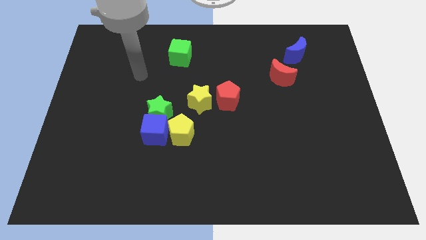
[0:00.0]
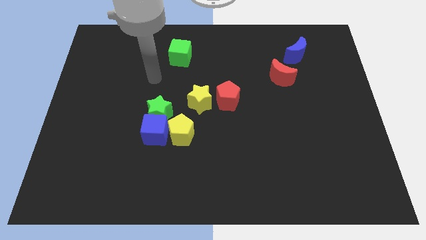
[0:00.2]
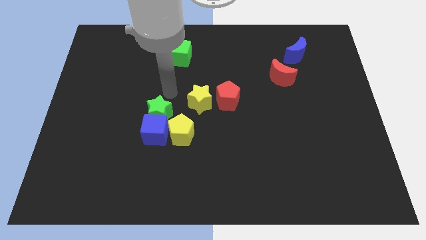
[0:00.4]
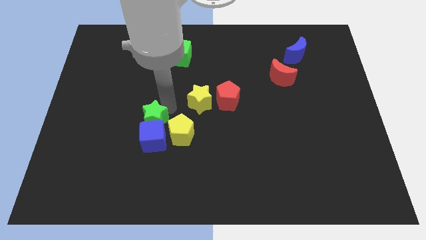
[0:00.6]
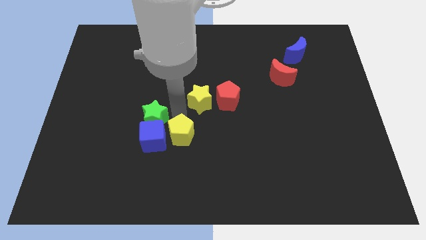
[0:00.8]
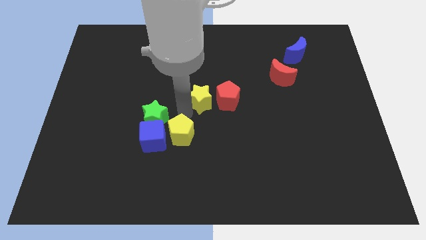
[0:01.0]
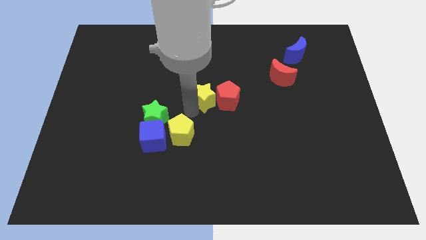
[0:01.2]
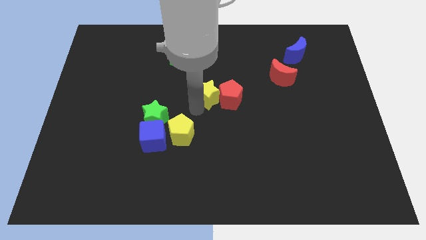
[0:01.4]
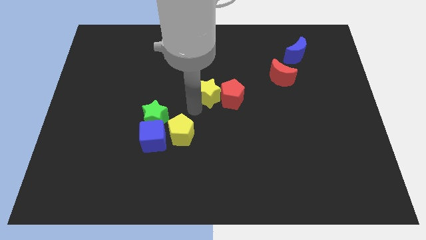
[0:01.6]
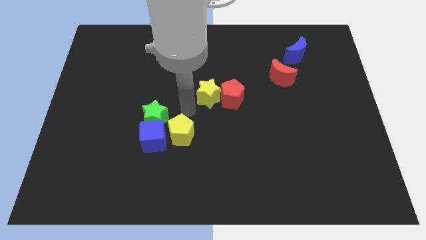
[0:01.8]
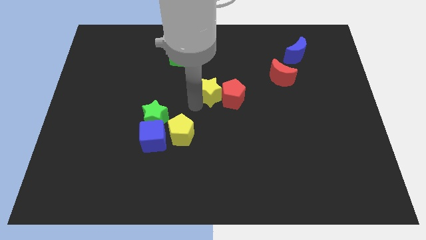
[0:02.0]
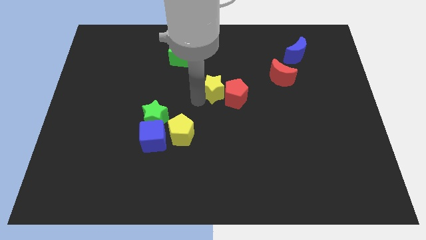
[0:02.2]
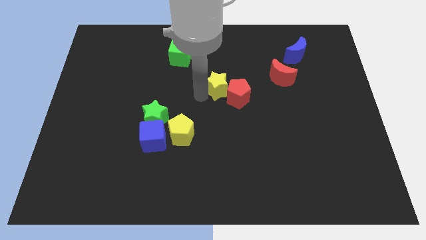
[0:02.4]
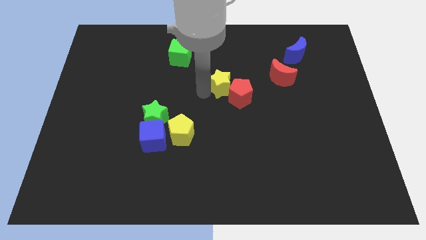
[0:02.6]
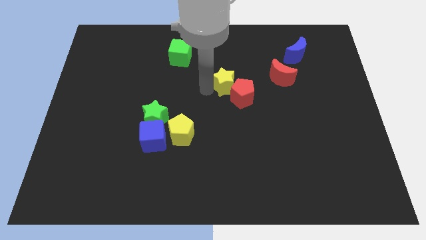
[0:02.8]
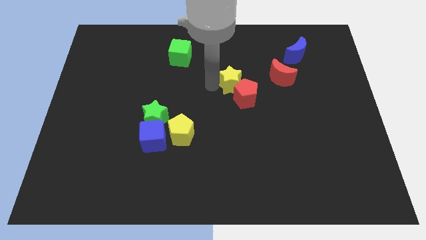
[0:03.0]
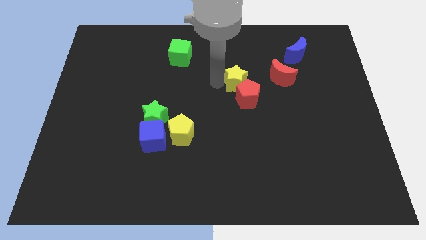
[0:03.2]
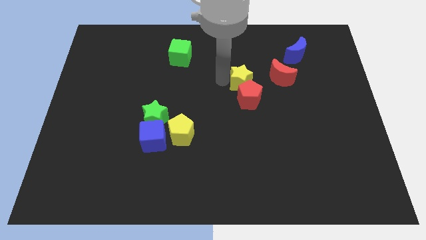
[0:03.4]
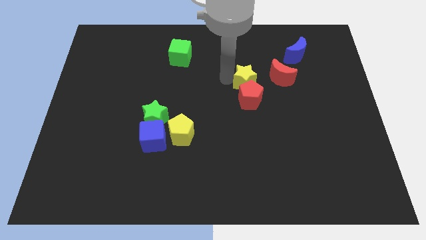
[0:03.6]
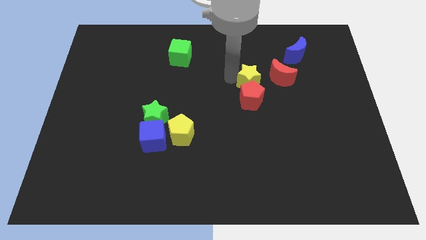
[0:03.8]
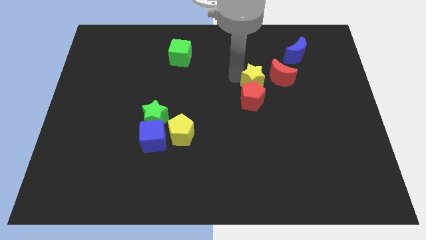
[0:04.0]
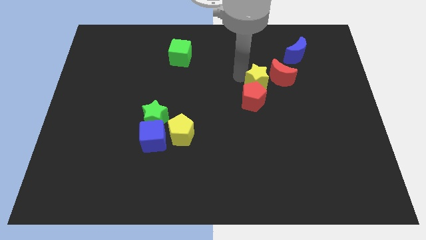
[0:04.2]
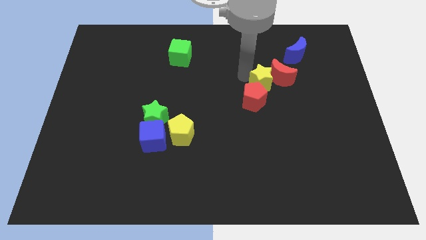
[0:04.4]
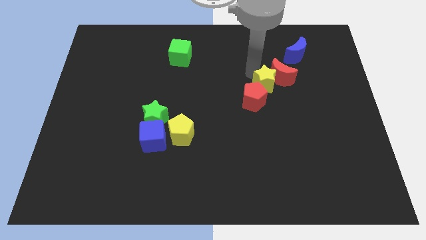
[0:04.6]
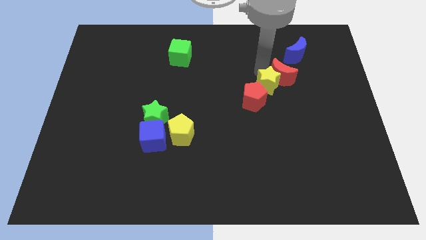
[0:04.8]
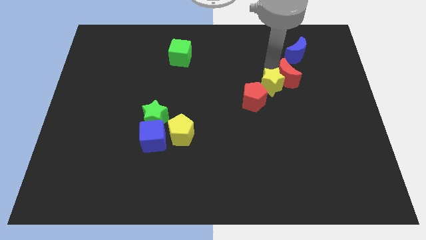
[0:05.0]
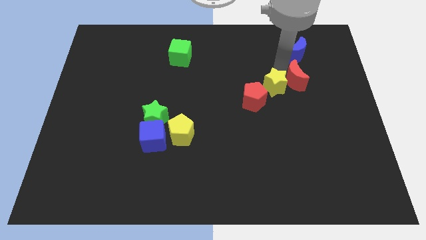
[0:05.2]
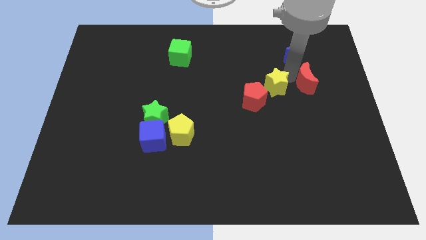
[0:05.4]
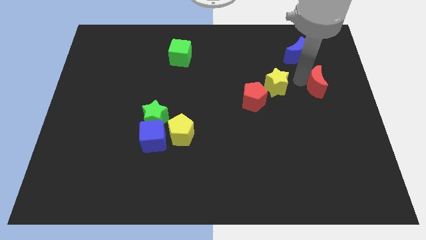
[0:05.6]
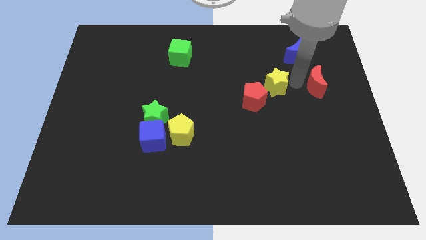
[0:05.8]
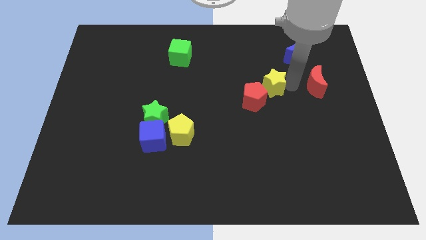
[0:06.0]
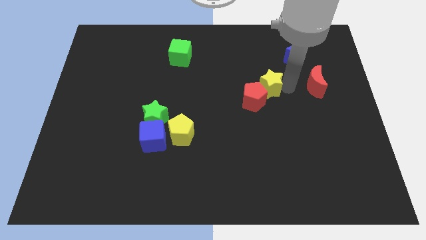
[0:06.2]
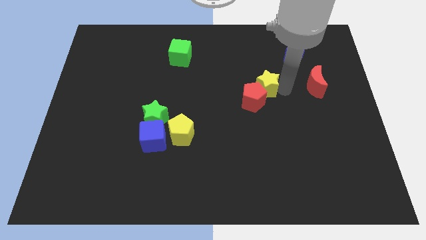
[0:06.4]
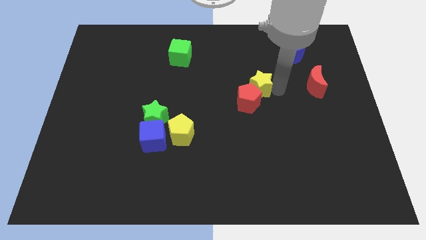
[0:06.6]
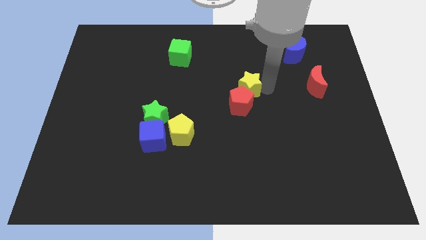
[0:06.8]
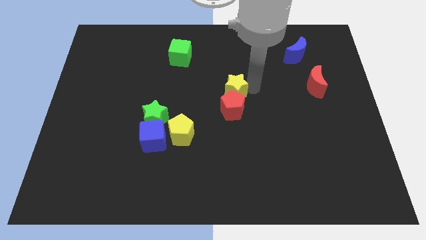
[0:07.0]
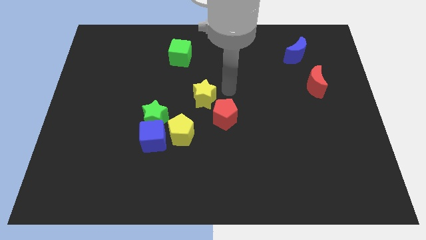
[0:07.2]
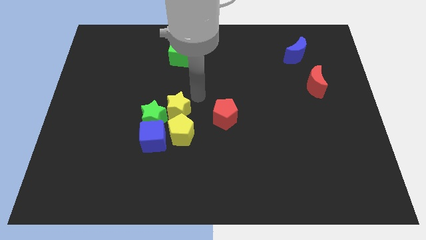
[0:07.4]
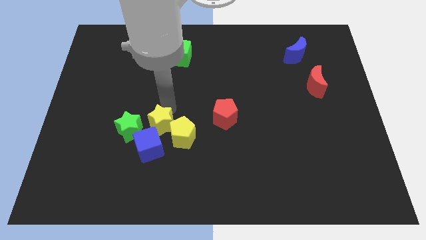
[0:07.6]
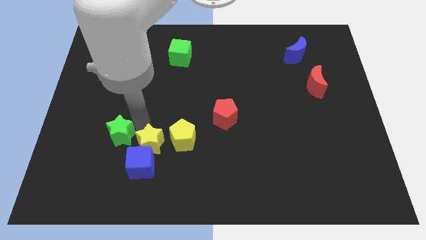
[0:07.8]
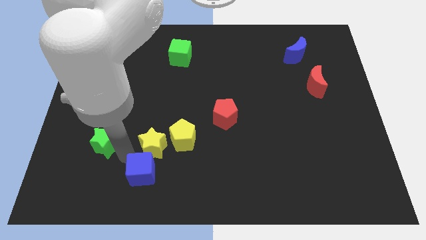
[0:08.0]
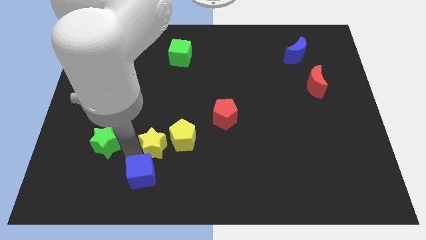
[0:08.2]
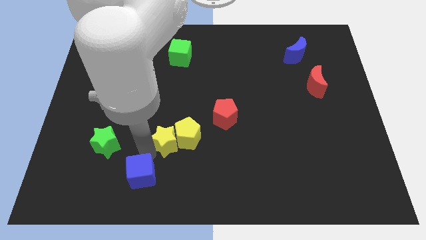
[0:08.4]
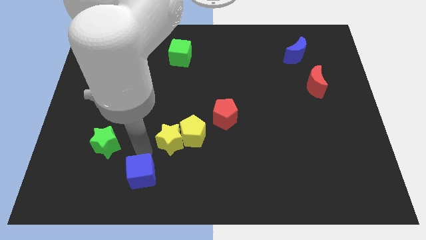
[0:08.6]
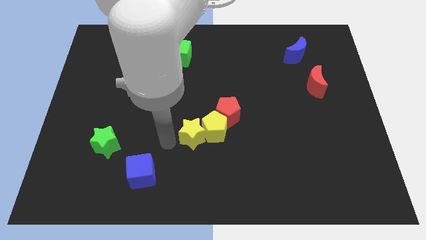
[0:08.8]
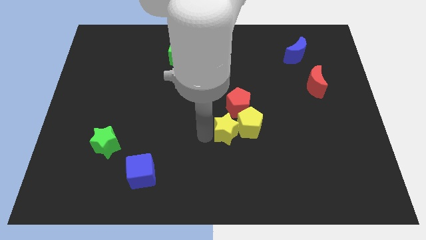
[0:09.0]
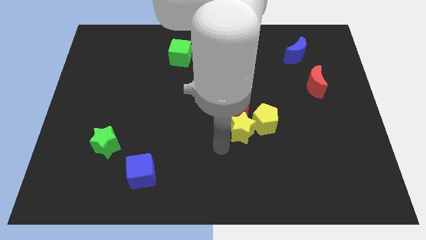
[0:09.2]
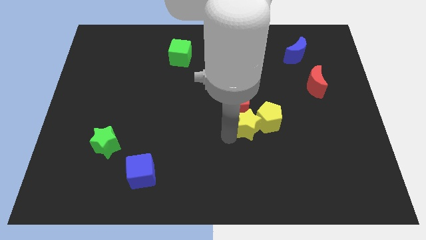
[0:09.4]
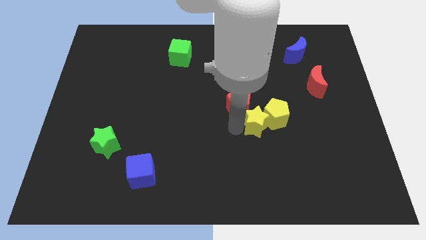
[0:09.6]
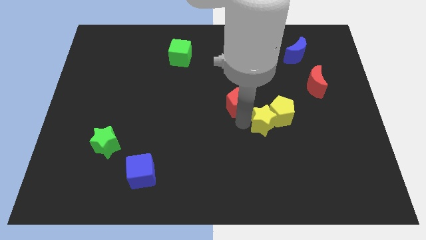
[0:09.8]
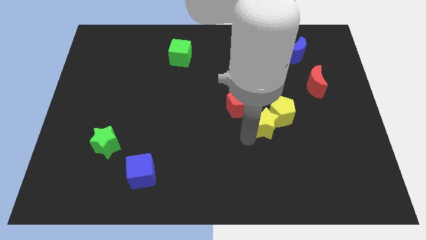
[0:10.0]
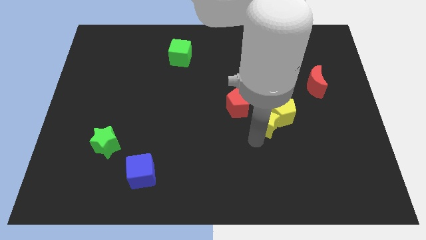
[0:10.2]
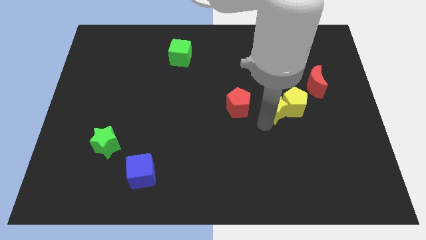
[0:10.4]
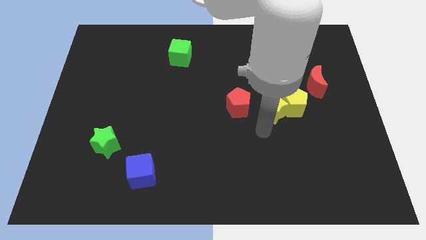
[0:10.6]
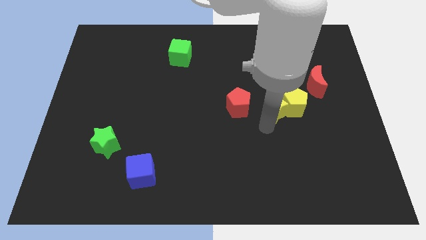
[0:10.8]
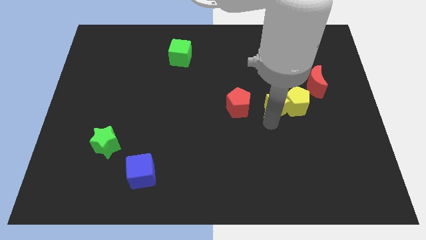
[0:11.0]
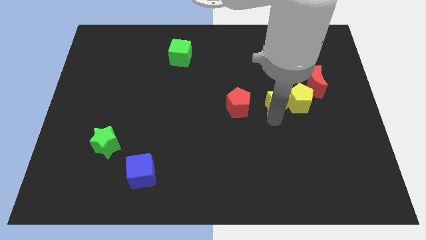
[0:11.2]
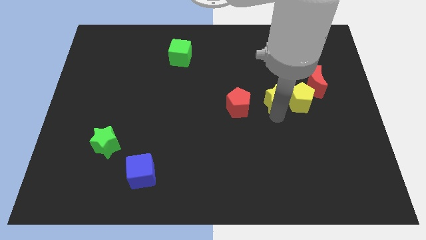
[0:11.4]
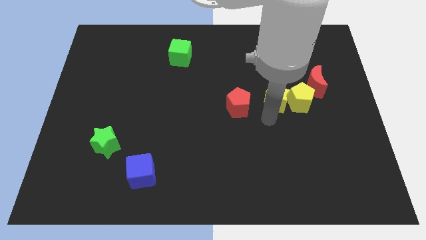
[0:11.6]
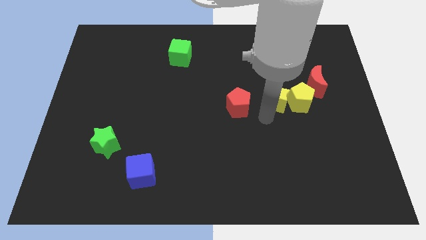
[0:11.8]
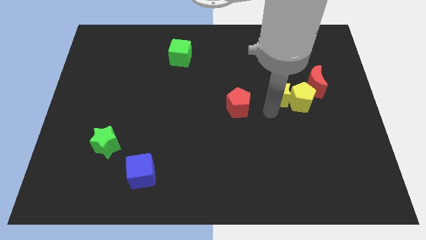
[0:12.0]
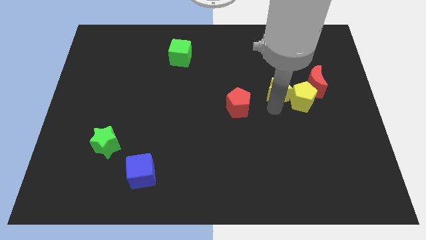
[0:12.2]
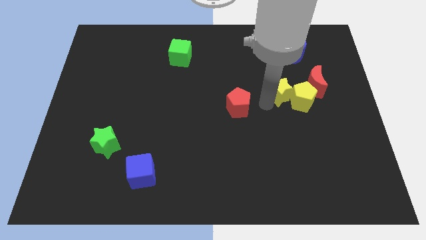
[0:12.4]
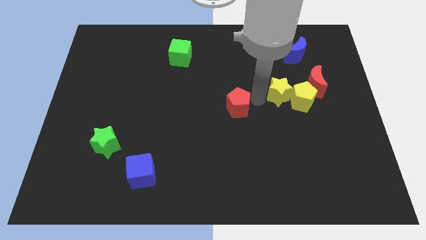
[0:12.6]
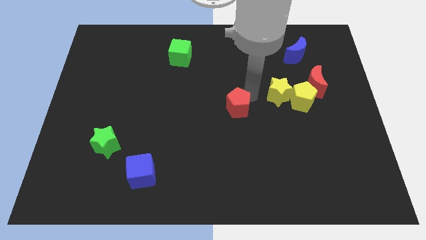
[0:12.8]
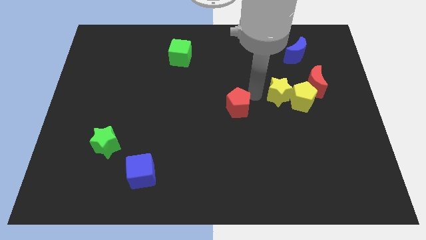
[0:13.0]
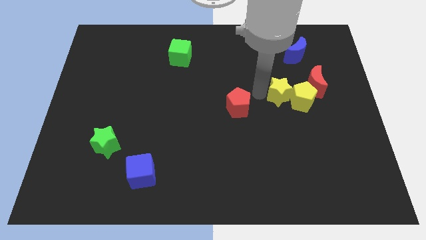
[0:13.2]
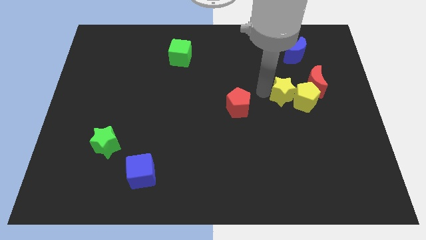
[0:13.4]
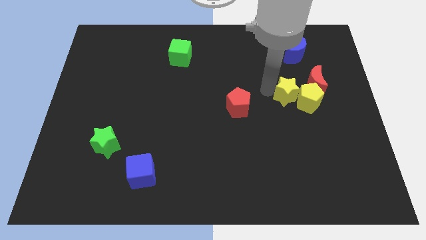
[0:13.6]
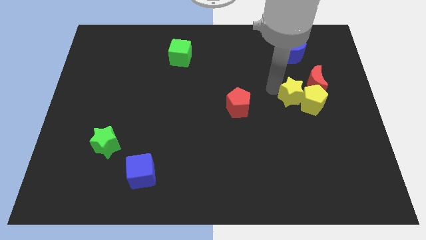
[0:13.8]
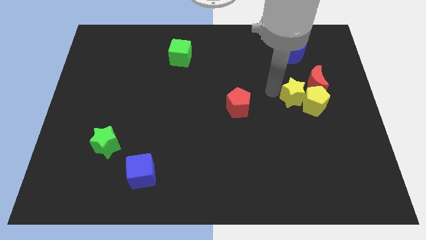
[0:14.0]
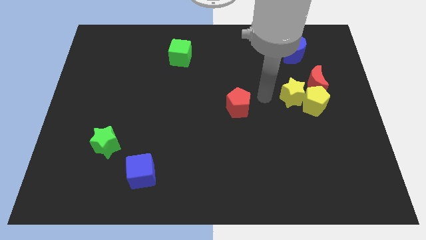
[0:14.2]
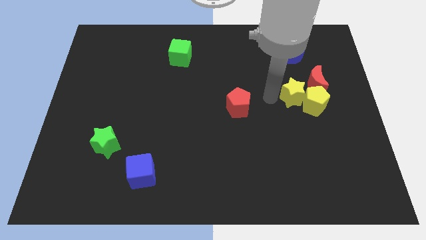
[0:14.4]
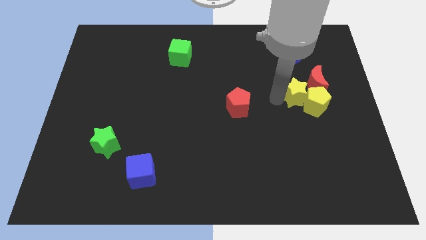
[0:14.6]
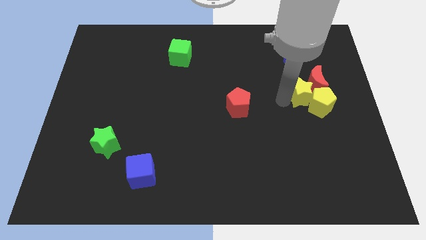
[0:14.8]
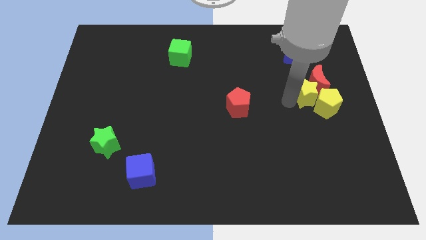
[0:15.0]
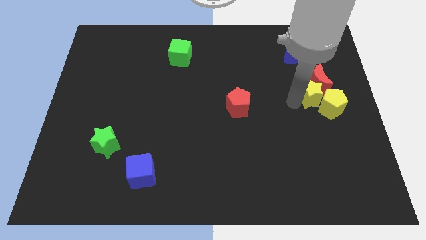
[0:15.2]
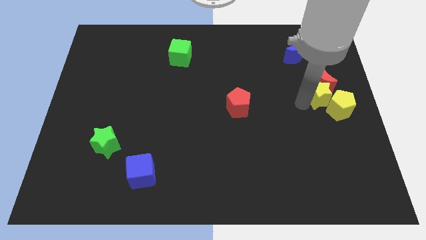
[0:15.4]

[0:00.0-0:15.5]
push the yellow star to the right side
